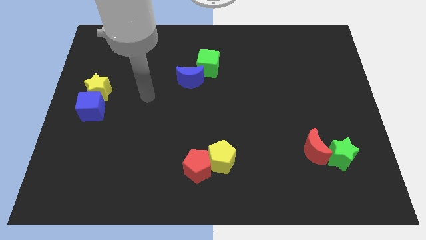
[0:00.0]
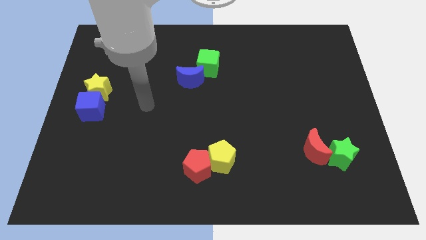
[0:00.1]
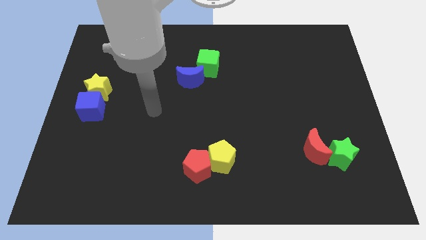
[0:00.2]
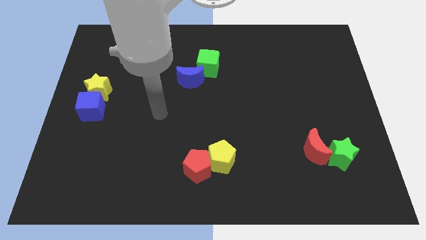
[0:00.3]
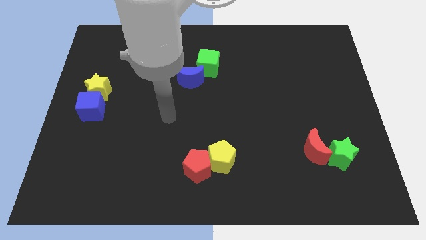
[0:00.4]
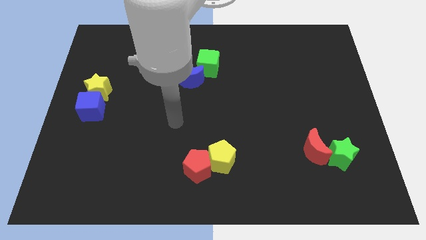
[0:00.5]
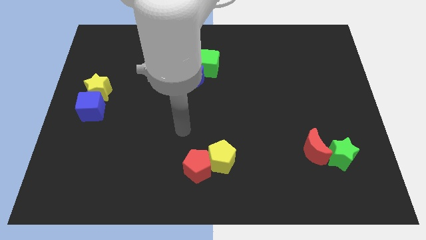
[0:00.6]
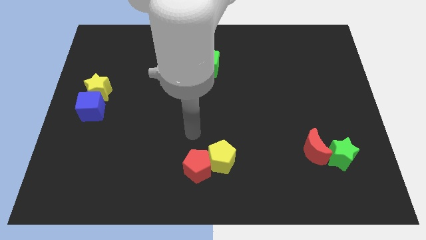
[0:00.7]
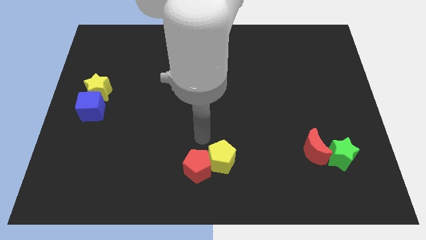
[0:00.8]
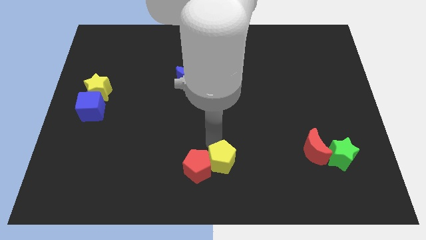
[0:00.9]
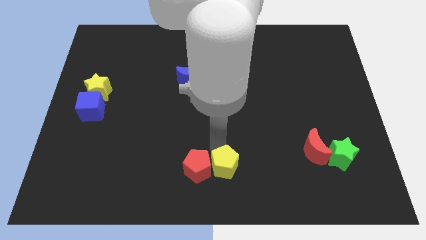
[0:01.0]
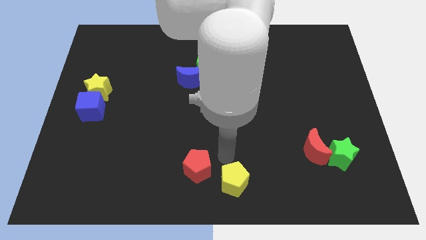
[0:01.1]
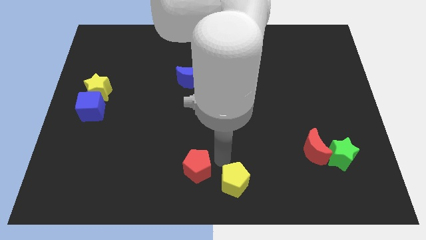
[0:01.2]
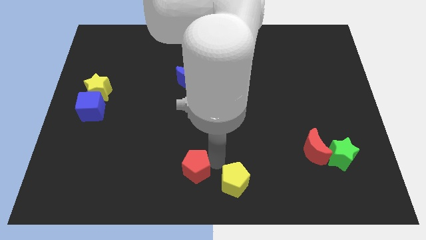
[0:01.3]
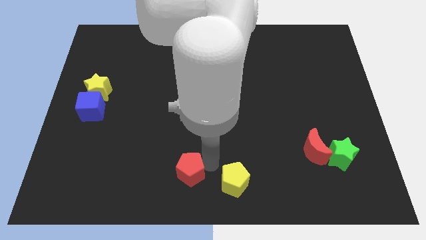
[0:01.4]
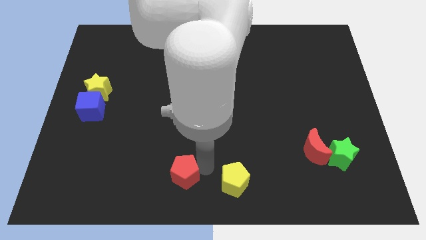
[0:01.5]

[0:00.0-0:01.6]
separate the red pentagon from the yellow pentagon

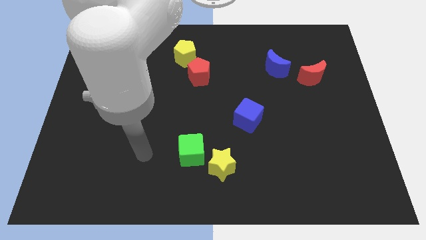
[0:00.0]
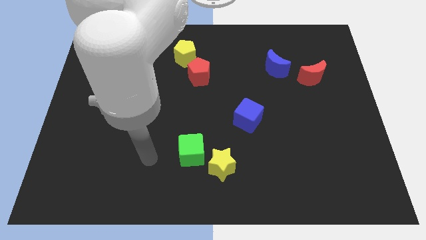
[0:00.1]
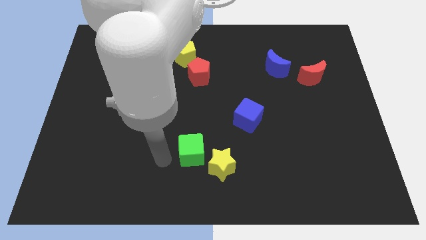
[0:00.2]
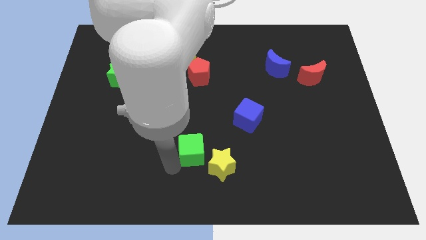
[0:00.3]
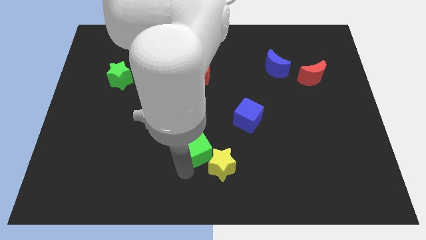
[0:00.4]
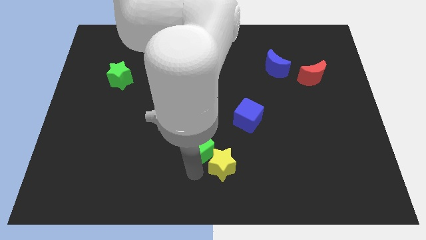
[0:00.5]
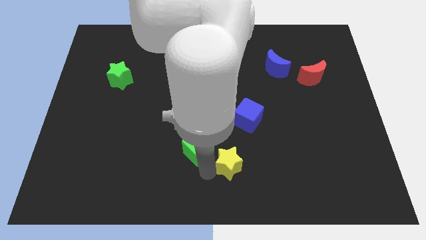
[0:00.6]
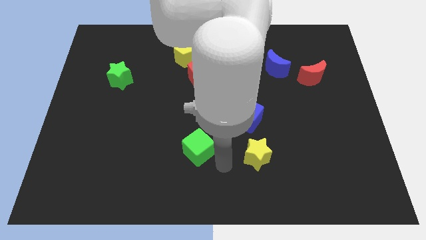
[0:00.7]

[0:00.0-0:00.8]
separate the green cube from the yellow star

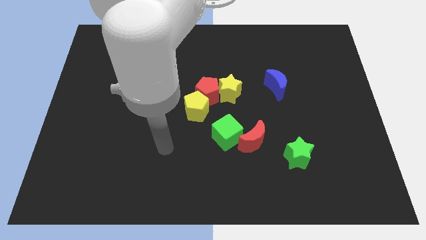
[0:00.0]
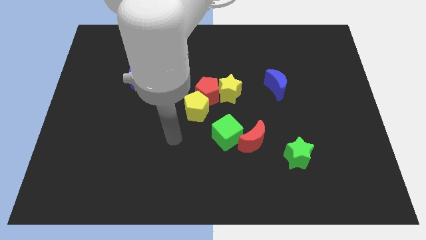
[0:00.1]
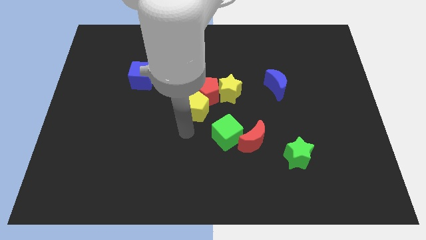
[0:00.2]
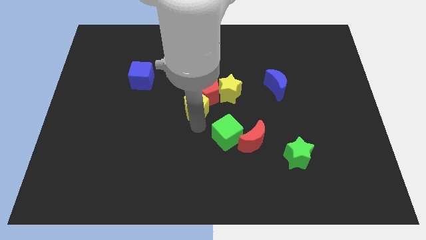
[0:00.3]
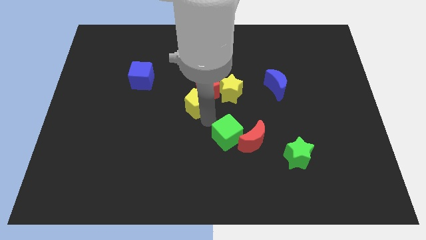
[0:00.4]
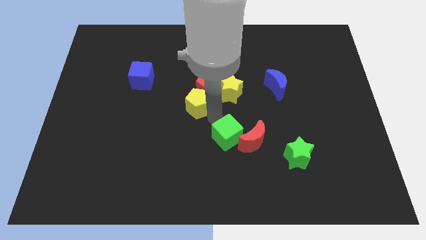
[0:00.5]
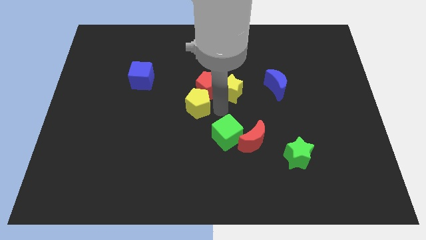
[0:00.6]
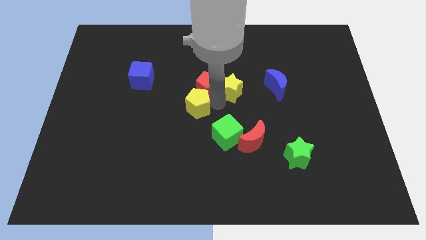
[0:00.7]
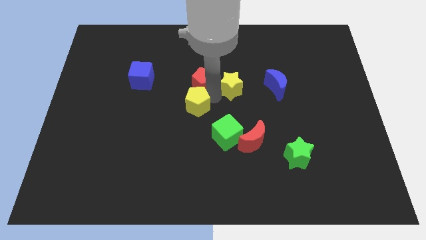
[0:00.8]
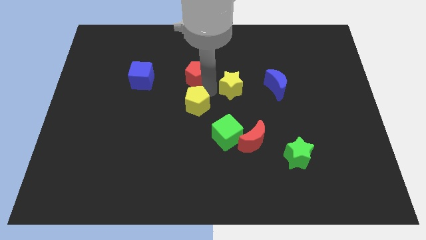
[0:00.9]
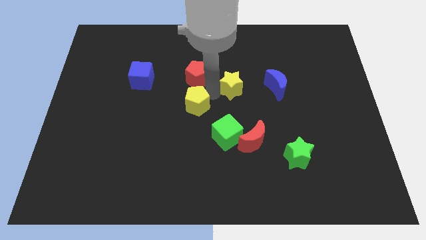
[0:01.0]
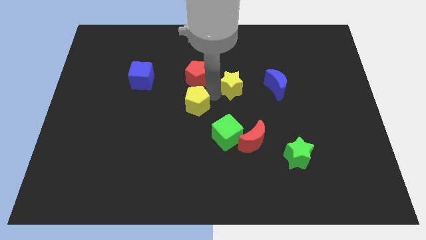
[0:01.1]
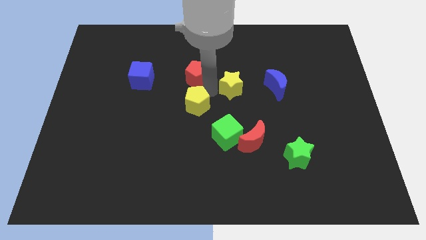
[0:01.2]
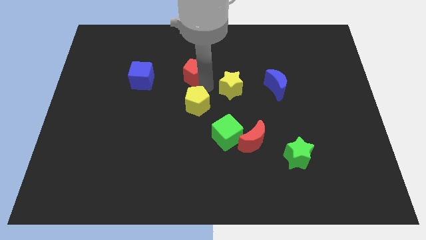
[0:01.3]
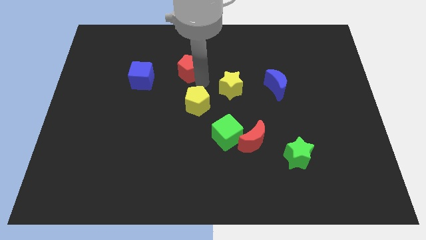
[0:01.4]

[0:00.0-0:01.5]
pull the red pentagon apart from the yellow star and yellow pentagon

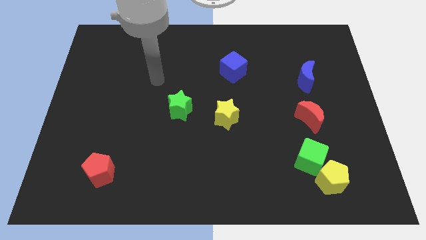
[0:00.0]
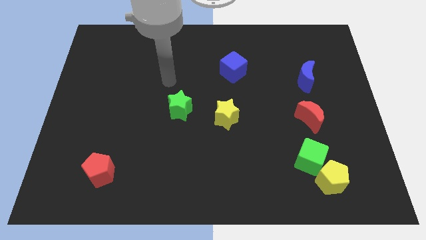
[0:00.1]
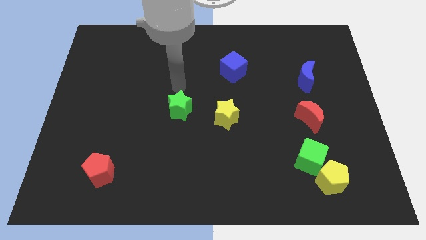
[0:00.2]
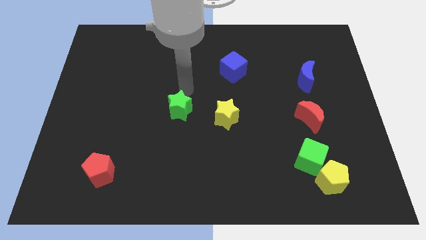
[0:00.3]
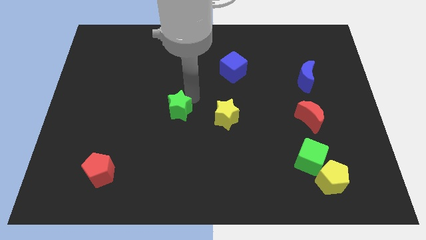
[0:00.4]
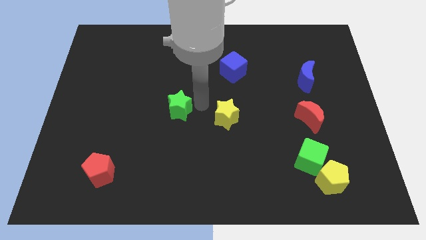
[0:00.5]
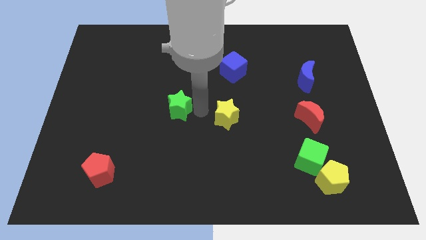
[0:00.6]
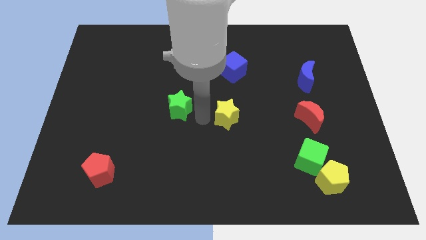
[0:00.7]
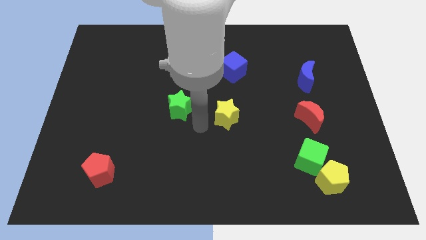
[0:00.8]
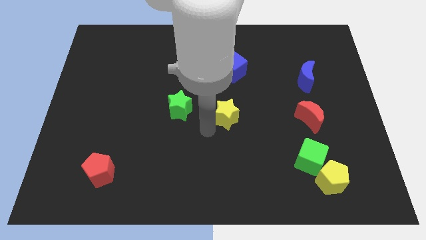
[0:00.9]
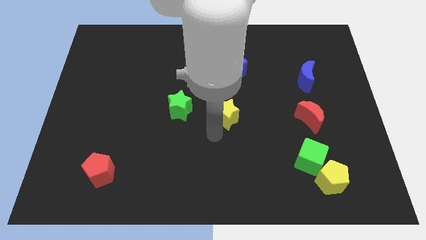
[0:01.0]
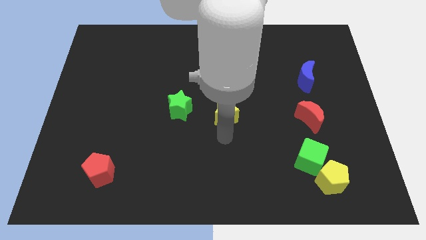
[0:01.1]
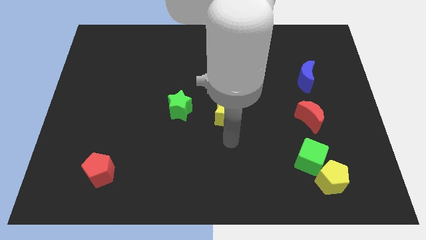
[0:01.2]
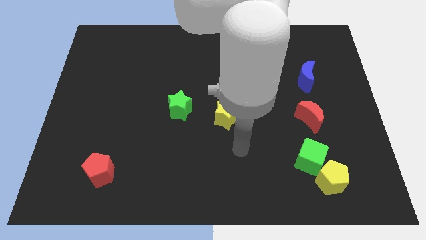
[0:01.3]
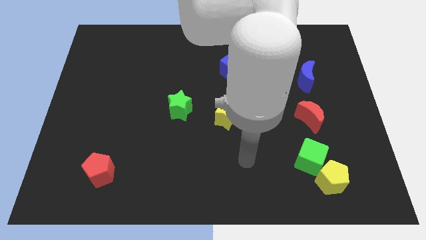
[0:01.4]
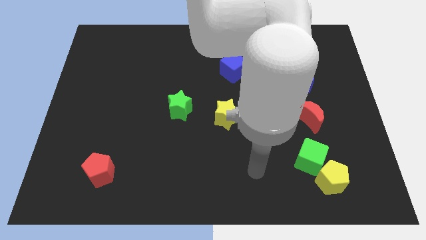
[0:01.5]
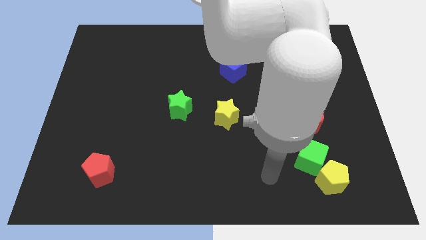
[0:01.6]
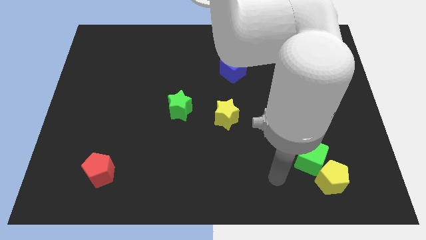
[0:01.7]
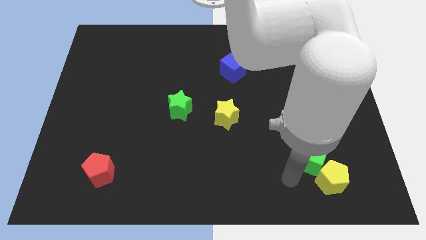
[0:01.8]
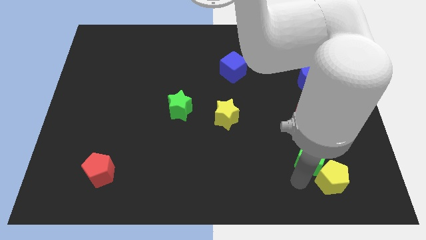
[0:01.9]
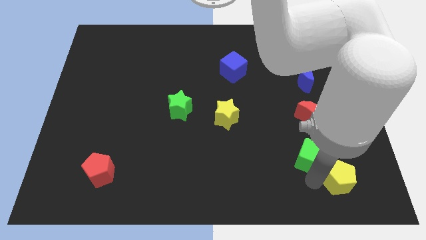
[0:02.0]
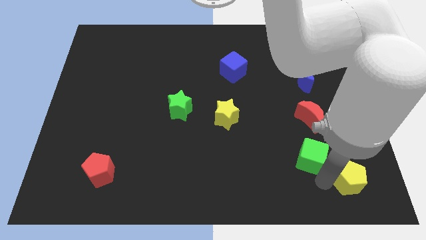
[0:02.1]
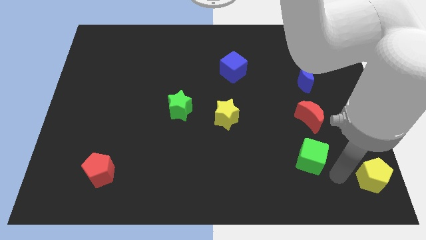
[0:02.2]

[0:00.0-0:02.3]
separate the green cube from the yellow pentagon

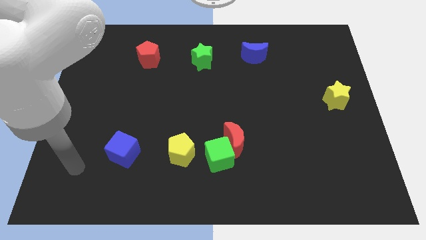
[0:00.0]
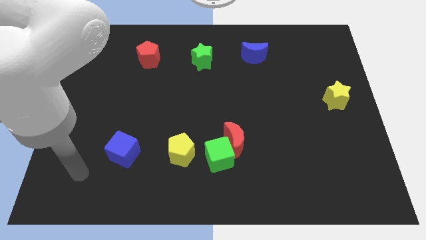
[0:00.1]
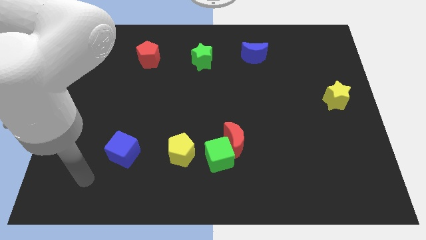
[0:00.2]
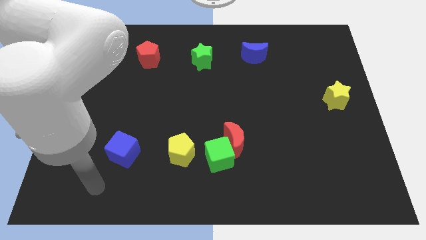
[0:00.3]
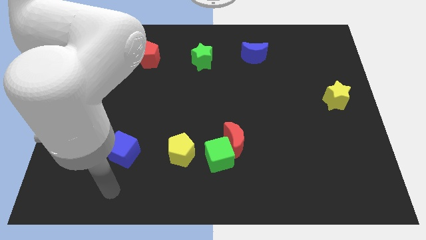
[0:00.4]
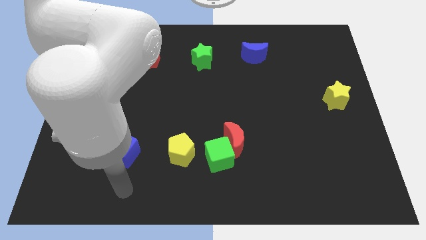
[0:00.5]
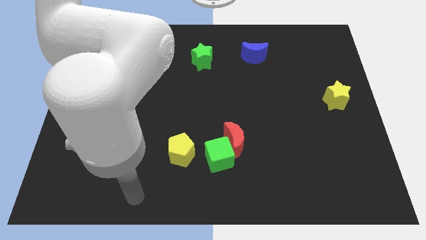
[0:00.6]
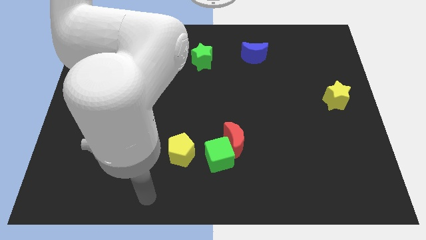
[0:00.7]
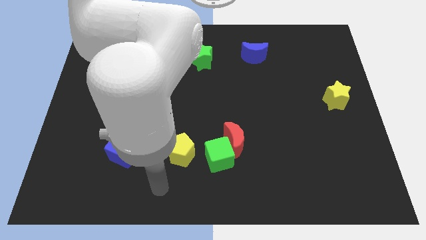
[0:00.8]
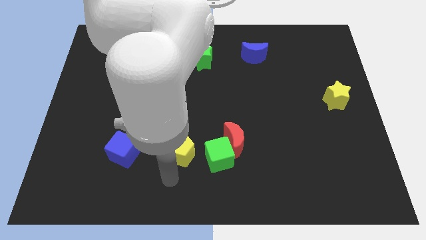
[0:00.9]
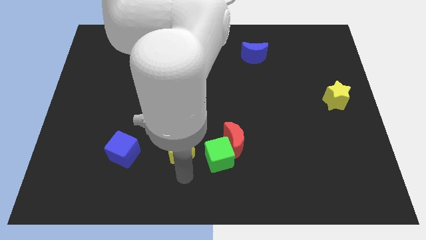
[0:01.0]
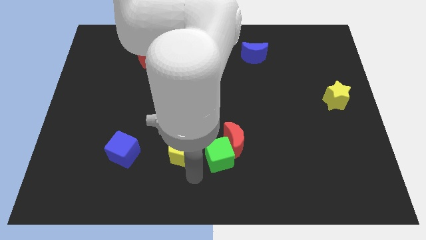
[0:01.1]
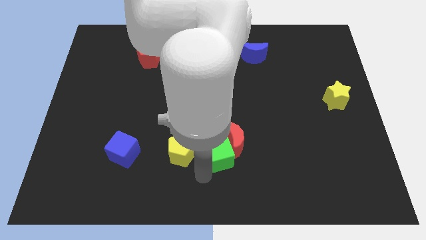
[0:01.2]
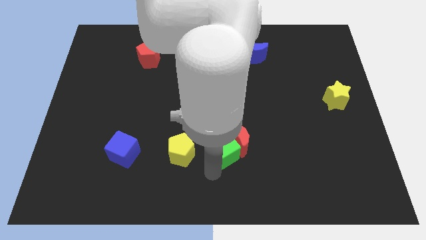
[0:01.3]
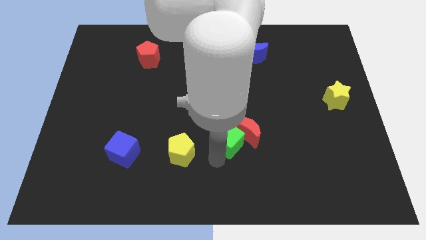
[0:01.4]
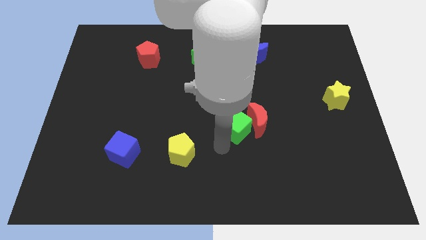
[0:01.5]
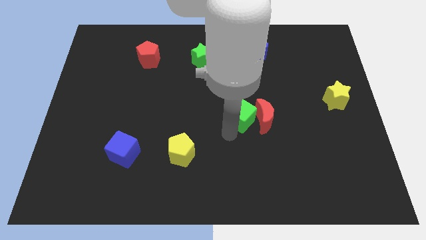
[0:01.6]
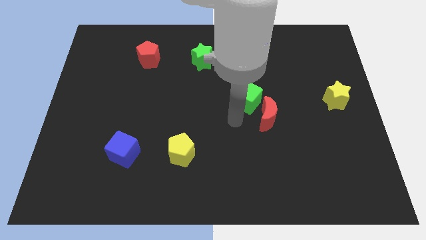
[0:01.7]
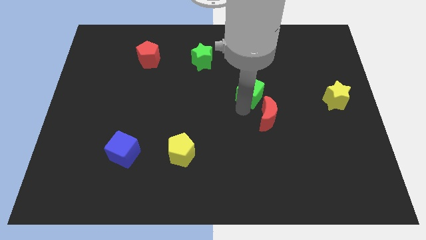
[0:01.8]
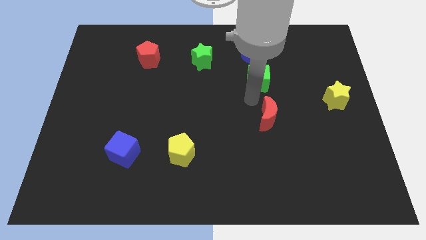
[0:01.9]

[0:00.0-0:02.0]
move the red moon away from the green cube

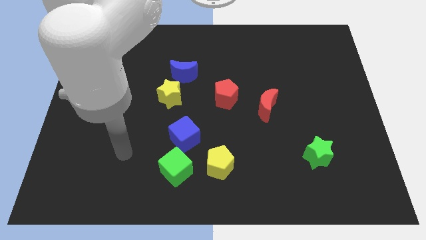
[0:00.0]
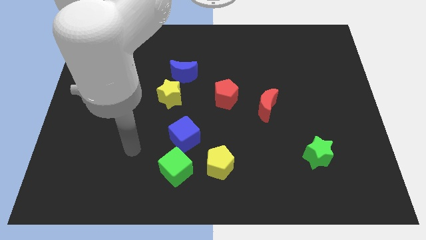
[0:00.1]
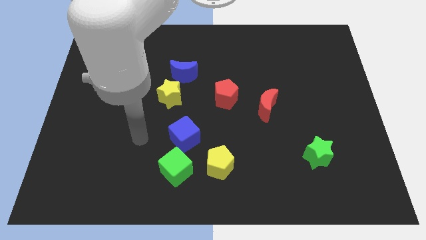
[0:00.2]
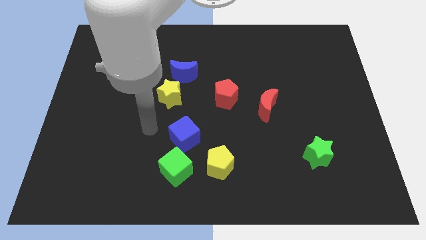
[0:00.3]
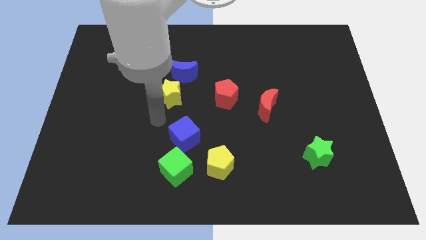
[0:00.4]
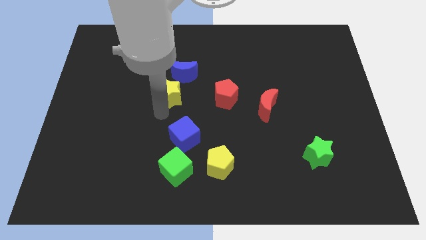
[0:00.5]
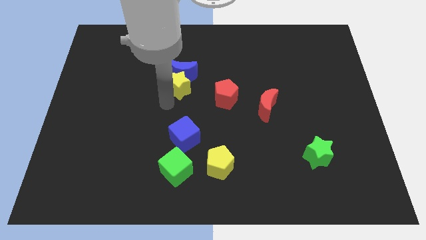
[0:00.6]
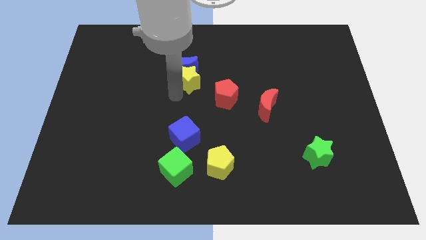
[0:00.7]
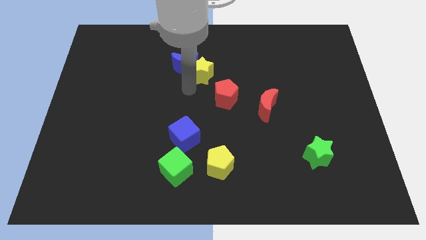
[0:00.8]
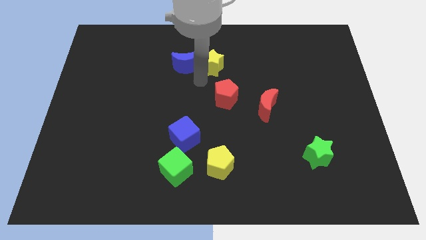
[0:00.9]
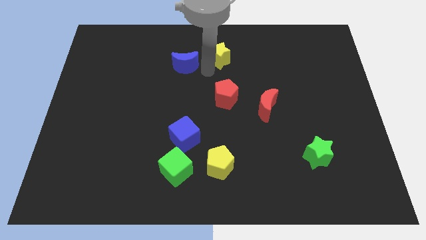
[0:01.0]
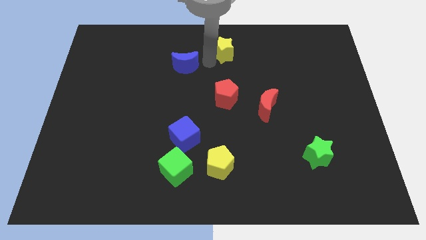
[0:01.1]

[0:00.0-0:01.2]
pull the blue moon apart from the yellow star
